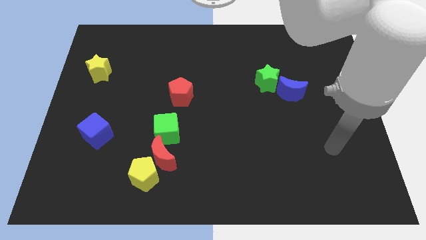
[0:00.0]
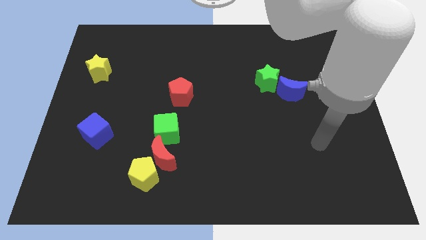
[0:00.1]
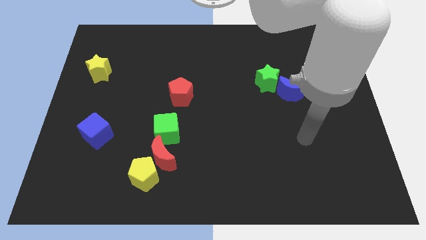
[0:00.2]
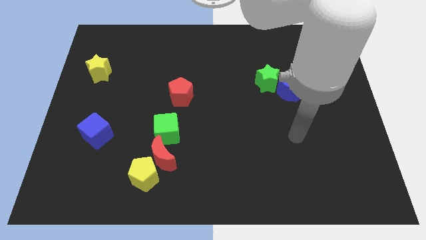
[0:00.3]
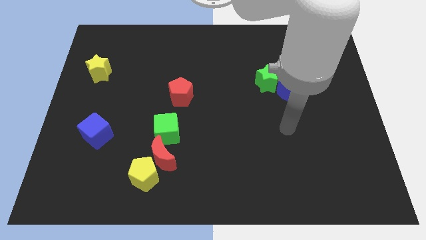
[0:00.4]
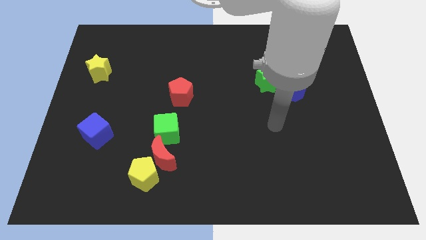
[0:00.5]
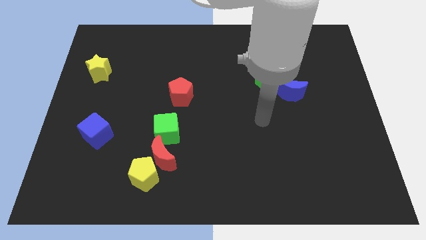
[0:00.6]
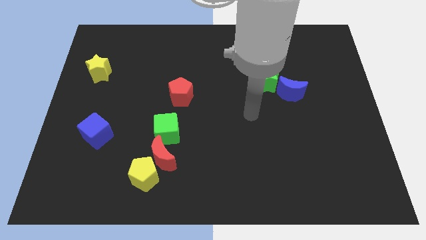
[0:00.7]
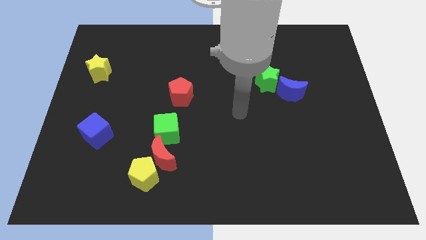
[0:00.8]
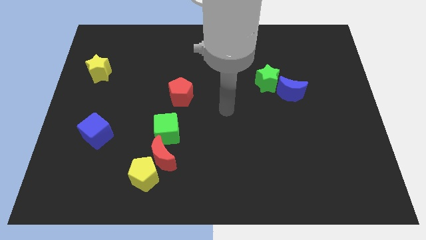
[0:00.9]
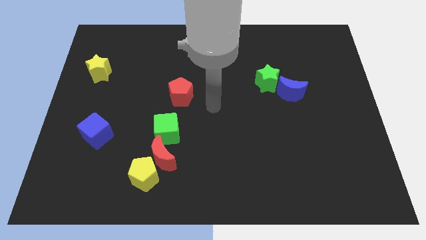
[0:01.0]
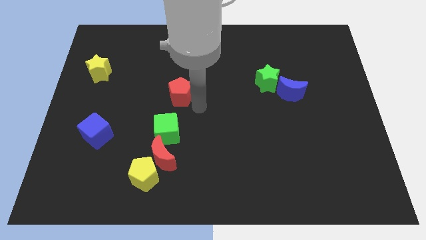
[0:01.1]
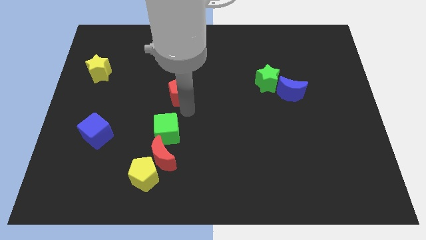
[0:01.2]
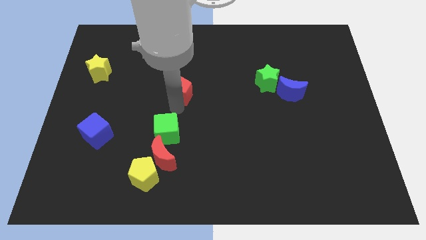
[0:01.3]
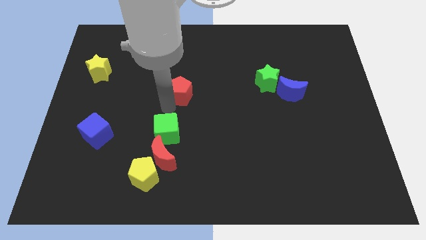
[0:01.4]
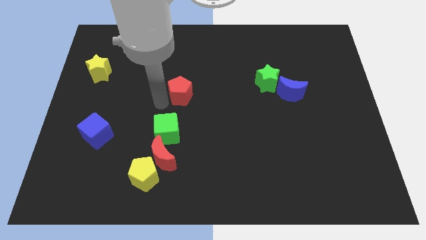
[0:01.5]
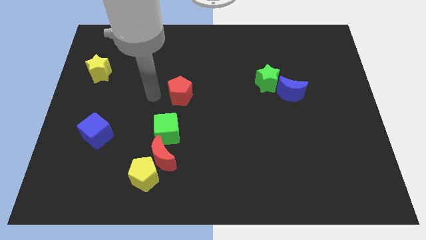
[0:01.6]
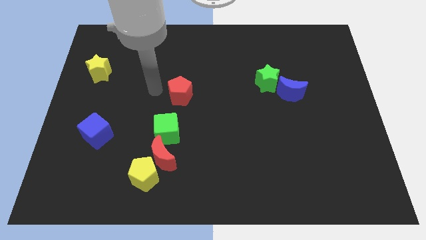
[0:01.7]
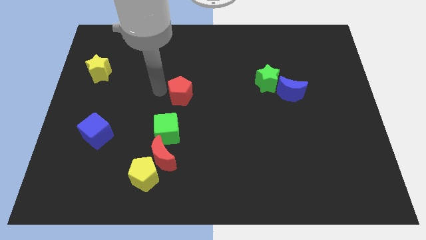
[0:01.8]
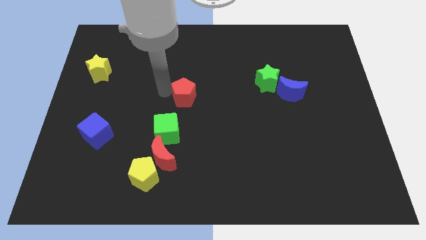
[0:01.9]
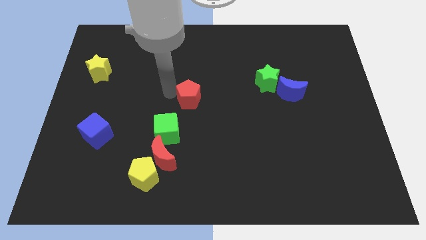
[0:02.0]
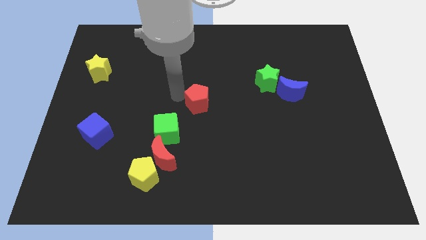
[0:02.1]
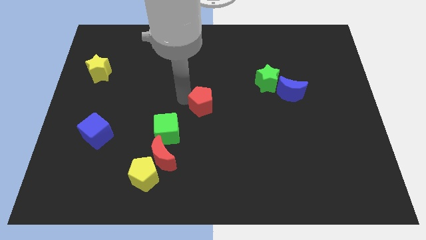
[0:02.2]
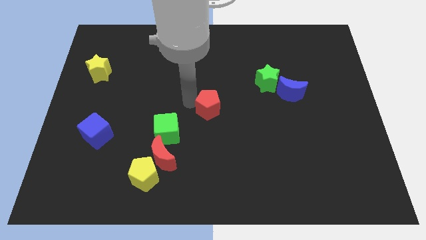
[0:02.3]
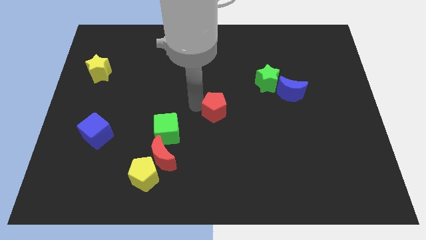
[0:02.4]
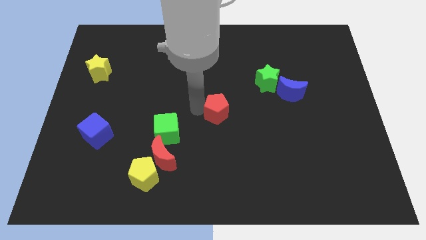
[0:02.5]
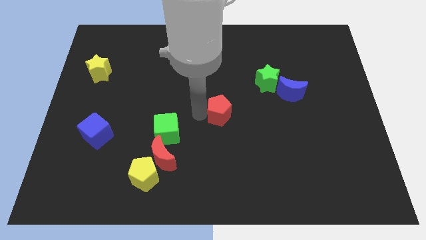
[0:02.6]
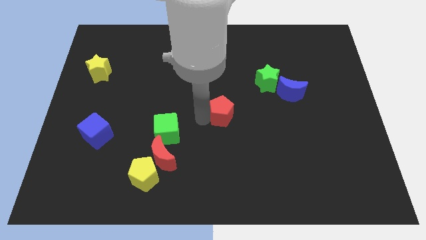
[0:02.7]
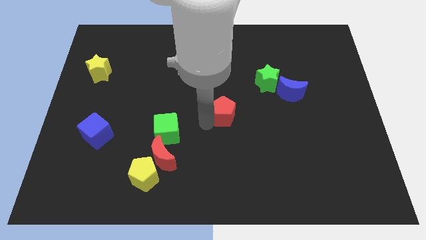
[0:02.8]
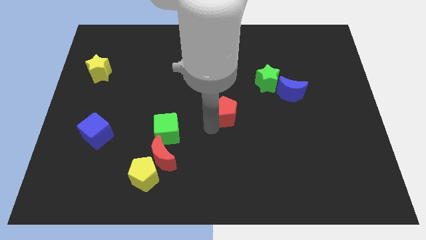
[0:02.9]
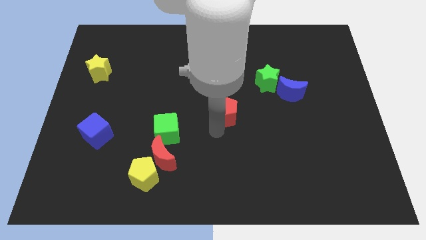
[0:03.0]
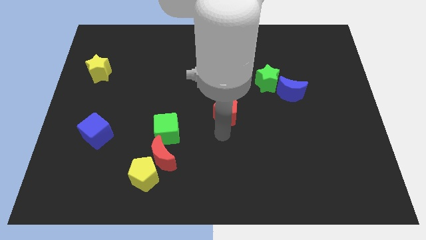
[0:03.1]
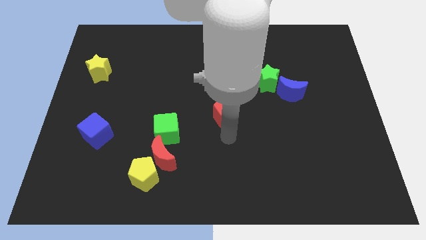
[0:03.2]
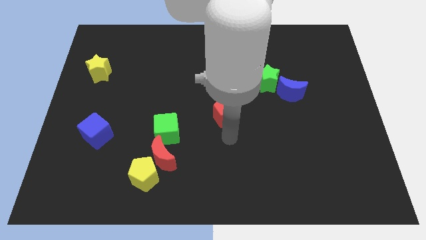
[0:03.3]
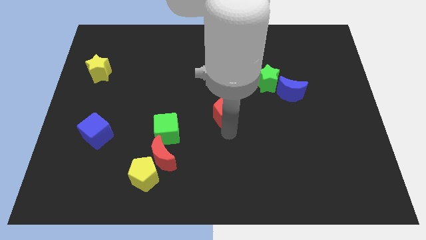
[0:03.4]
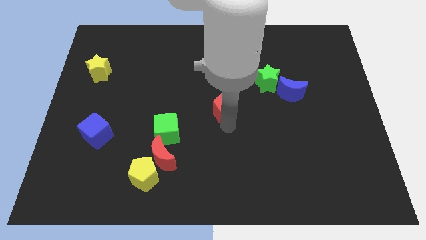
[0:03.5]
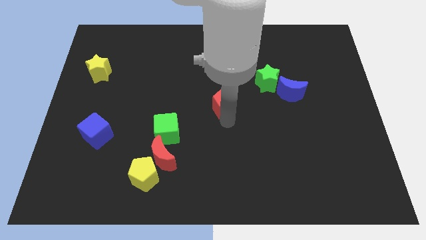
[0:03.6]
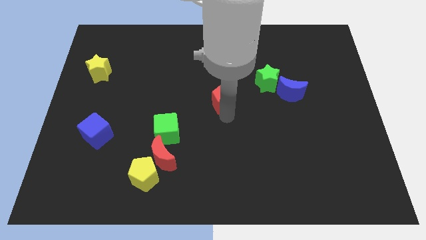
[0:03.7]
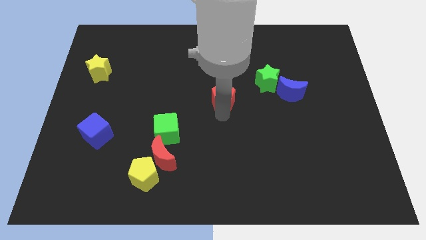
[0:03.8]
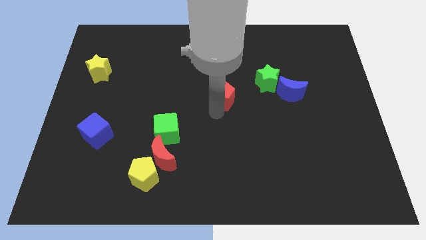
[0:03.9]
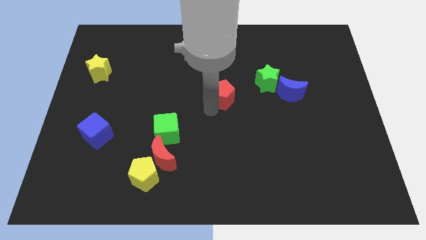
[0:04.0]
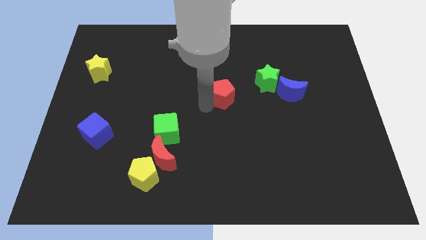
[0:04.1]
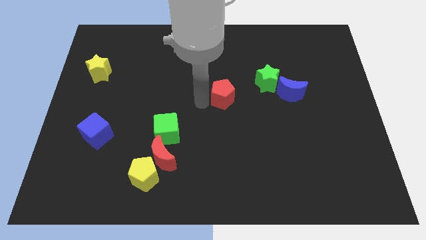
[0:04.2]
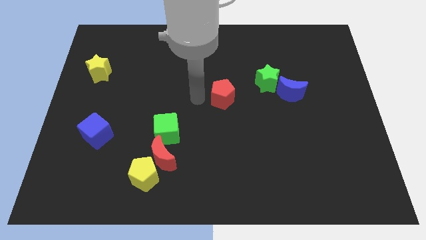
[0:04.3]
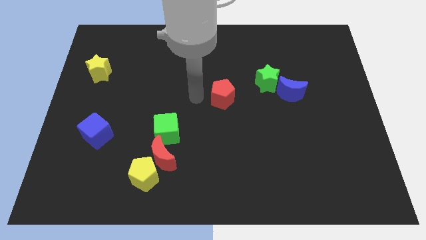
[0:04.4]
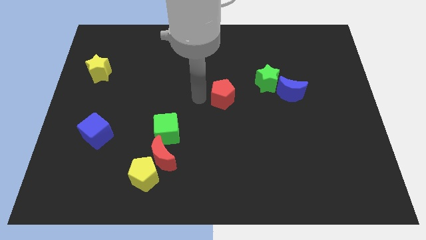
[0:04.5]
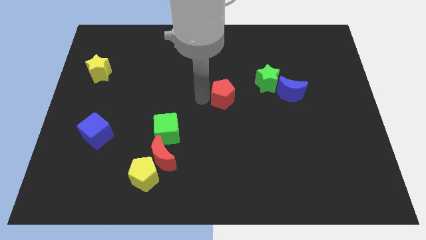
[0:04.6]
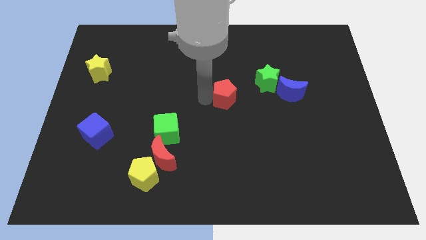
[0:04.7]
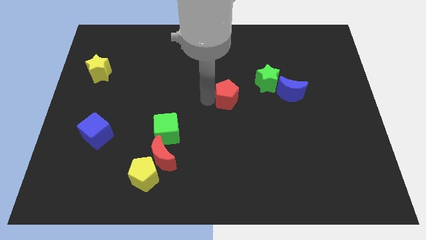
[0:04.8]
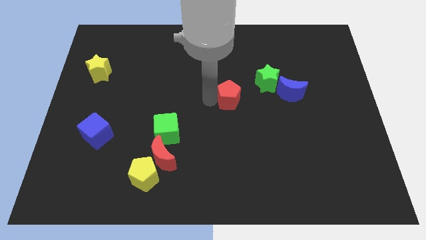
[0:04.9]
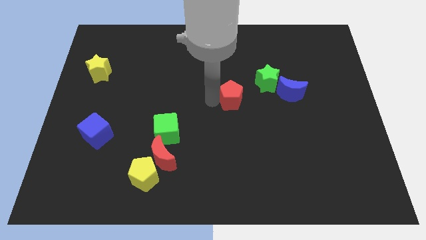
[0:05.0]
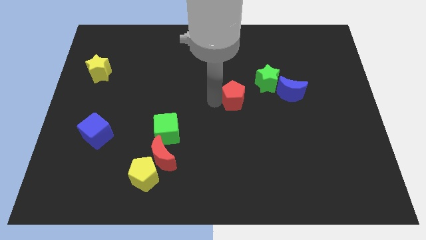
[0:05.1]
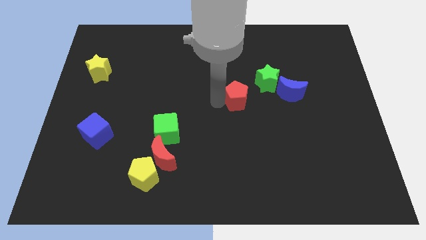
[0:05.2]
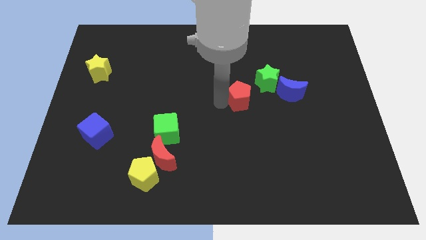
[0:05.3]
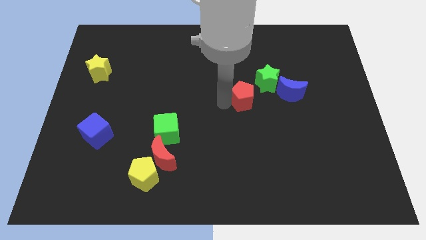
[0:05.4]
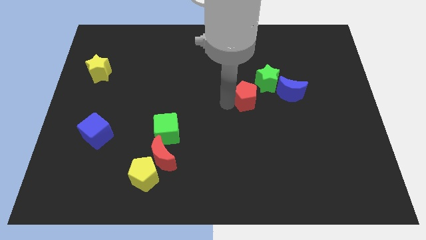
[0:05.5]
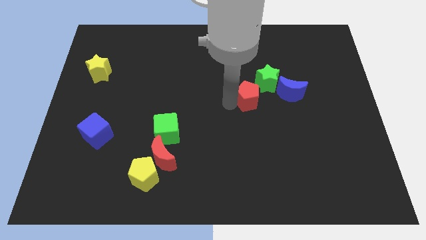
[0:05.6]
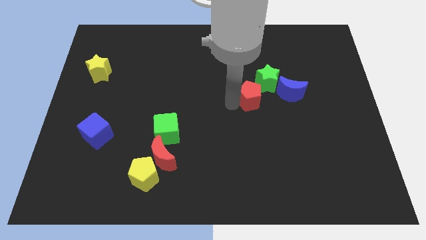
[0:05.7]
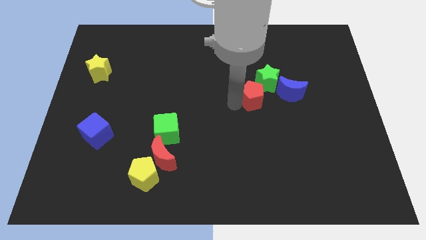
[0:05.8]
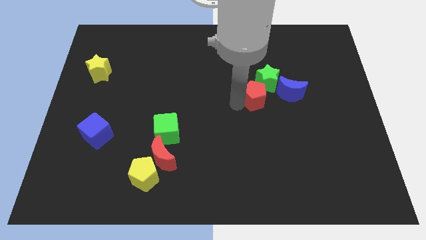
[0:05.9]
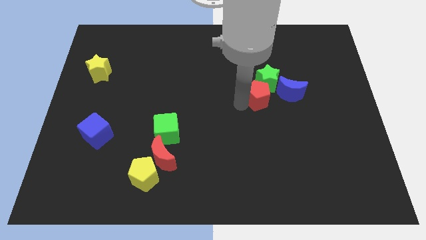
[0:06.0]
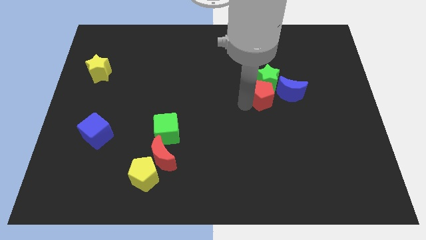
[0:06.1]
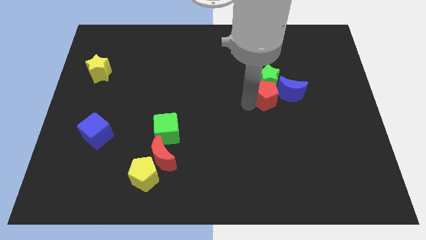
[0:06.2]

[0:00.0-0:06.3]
push the red pentagon close to the blue moon

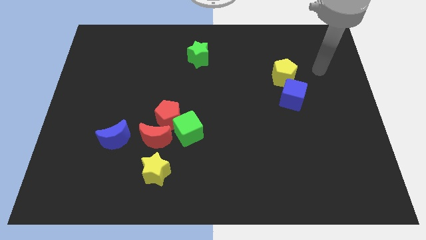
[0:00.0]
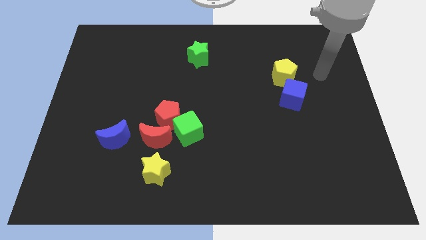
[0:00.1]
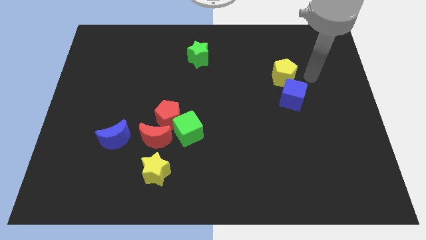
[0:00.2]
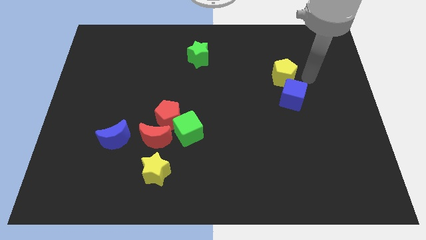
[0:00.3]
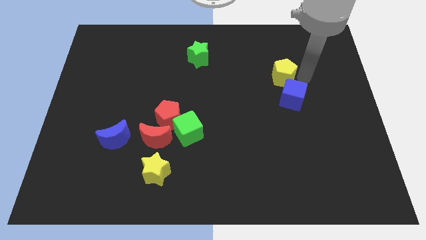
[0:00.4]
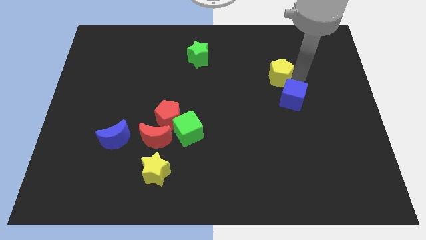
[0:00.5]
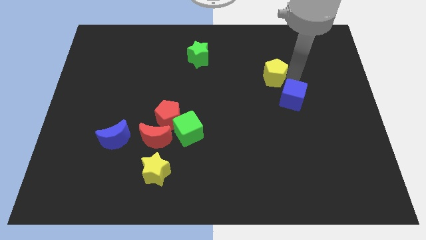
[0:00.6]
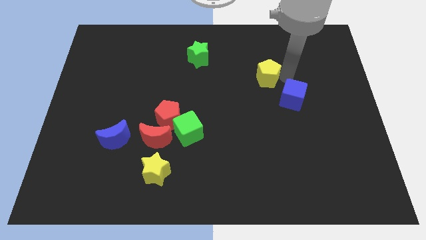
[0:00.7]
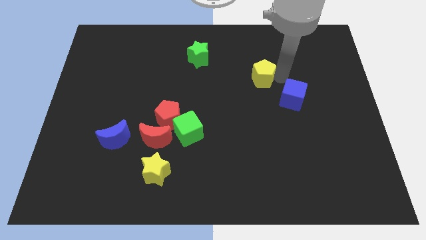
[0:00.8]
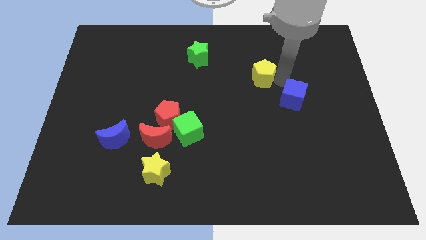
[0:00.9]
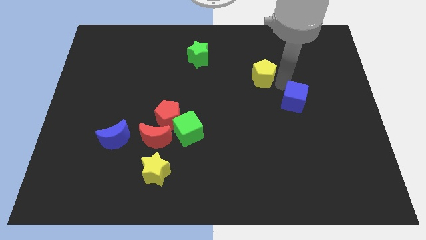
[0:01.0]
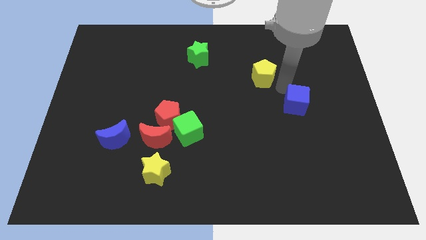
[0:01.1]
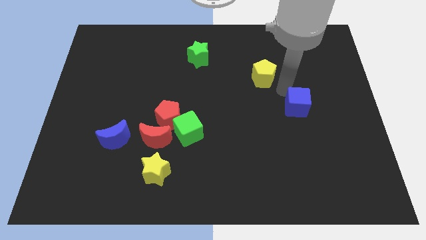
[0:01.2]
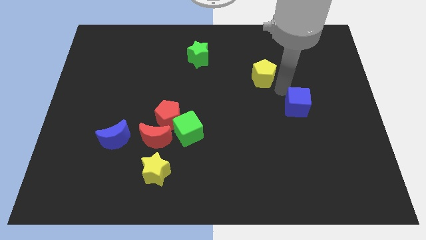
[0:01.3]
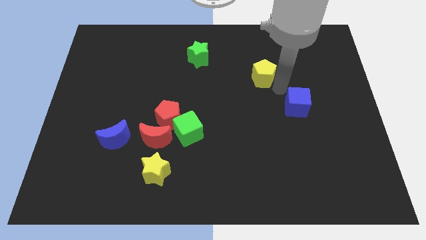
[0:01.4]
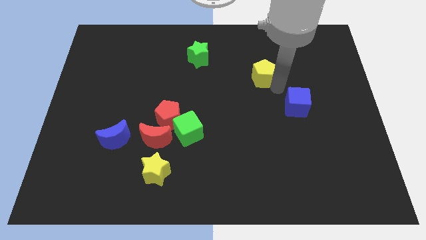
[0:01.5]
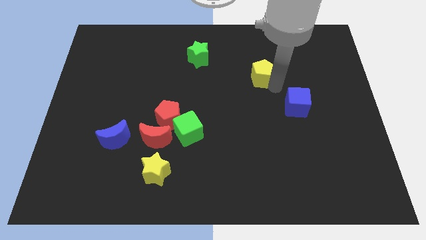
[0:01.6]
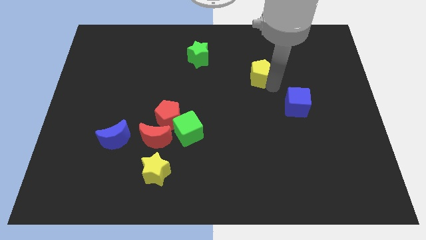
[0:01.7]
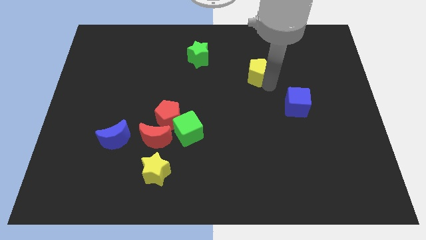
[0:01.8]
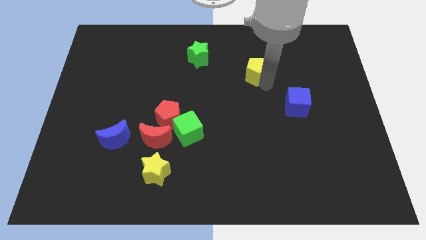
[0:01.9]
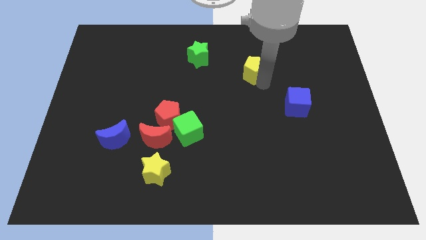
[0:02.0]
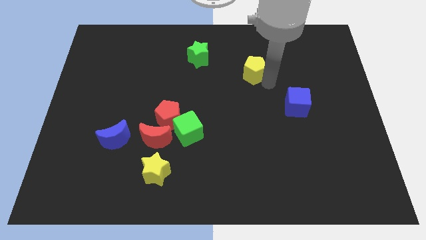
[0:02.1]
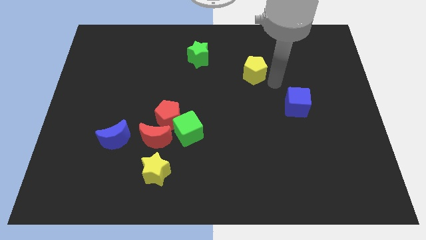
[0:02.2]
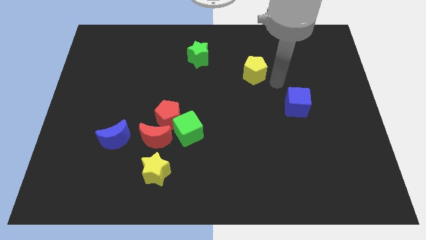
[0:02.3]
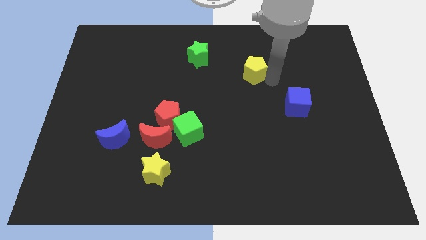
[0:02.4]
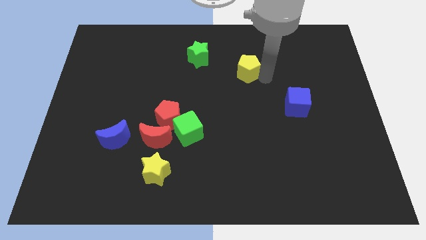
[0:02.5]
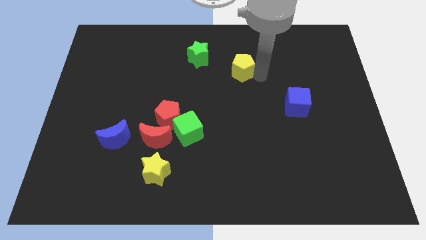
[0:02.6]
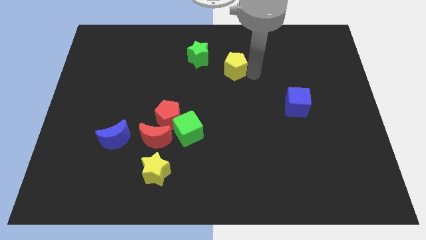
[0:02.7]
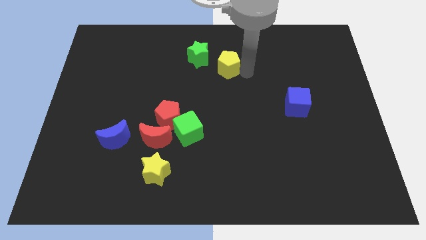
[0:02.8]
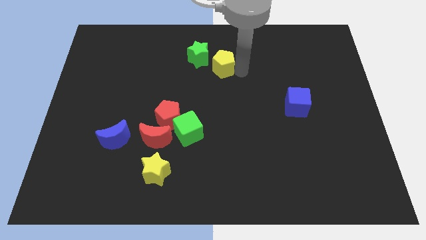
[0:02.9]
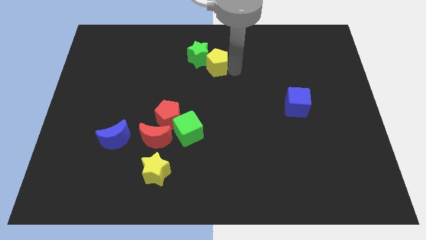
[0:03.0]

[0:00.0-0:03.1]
slide the yellow pentagon to the green star
